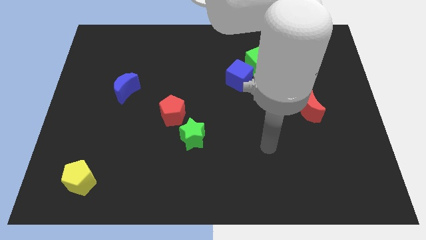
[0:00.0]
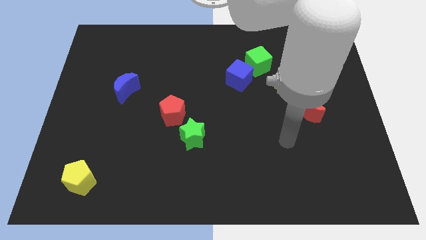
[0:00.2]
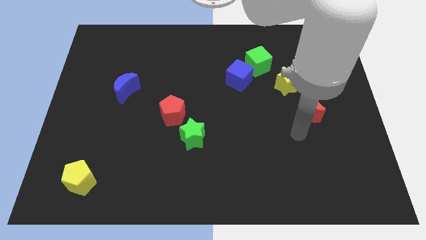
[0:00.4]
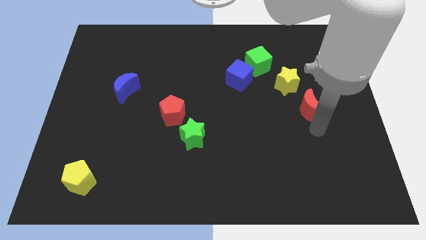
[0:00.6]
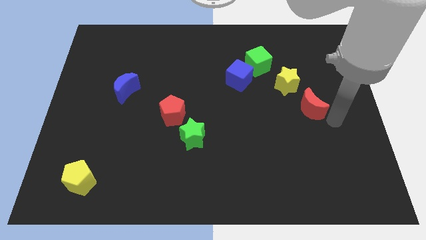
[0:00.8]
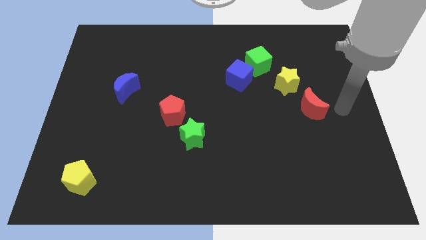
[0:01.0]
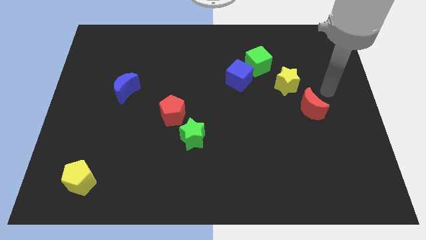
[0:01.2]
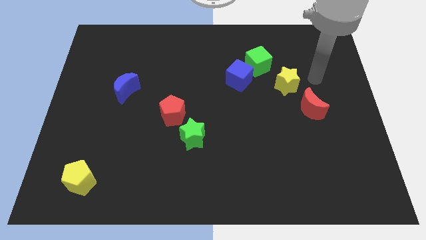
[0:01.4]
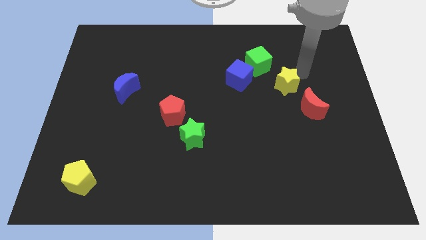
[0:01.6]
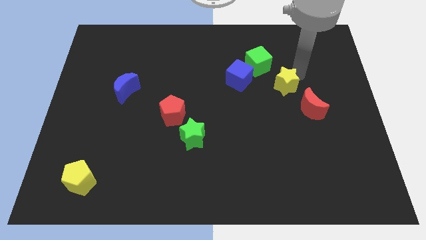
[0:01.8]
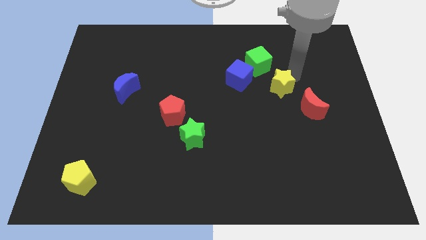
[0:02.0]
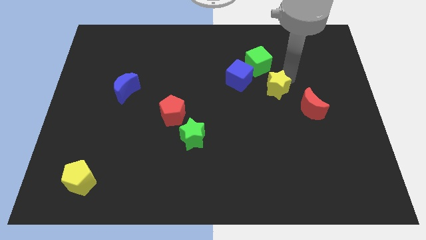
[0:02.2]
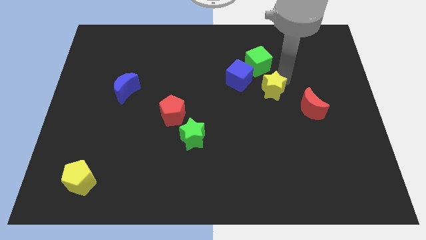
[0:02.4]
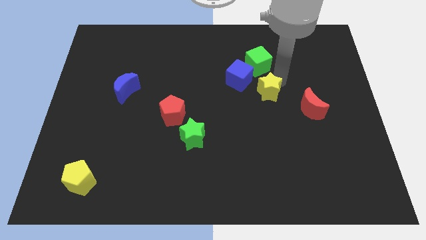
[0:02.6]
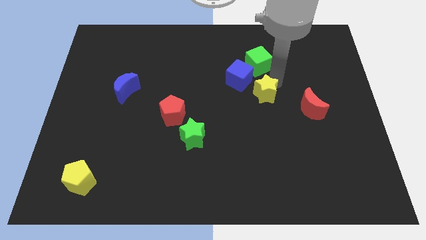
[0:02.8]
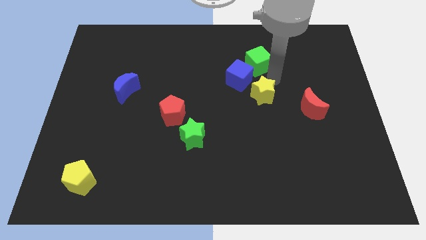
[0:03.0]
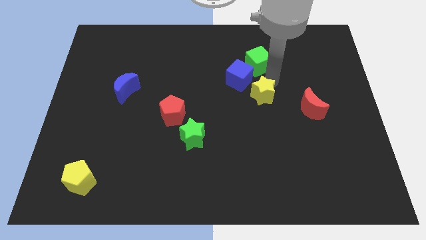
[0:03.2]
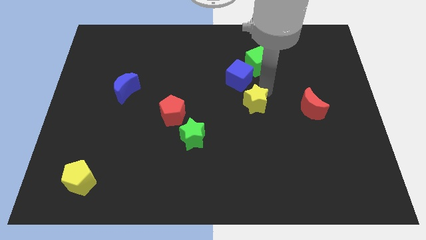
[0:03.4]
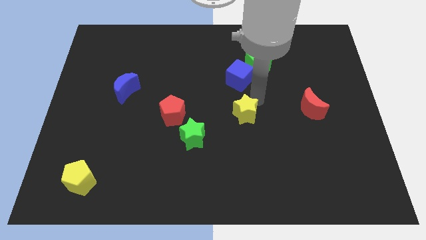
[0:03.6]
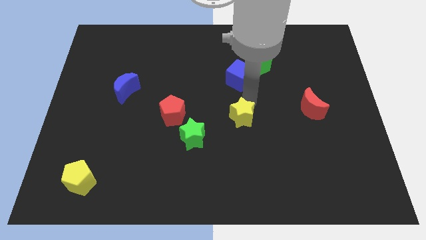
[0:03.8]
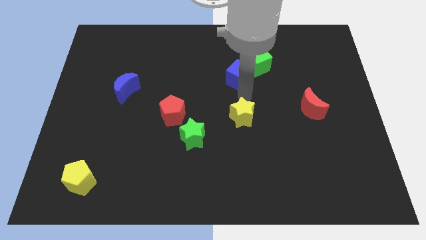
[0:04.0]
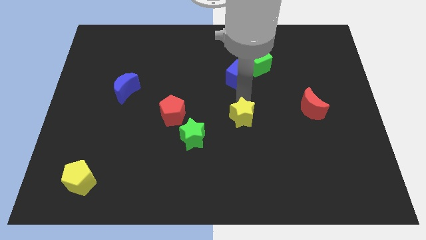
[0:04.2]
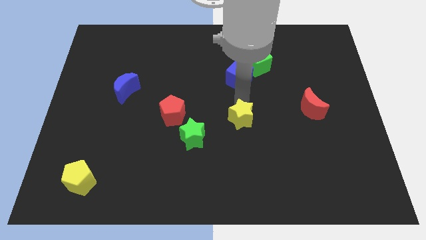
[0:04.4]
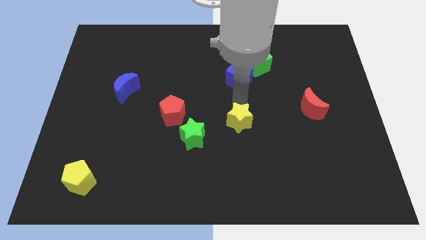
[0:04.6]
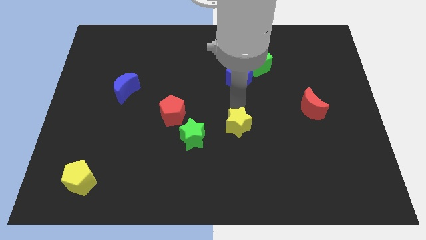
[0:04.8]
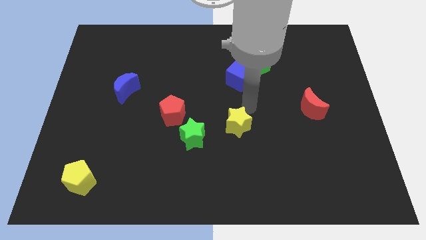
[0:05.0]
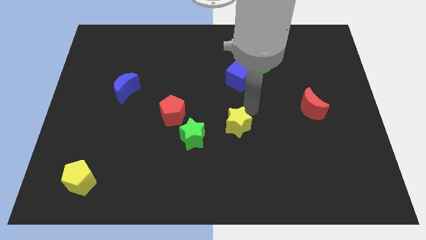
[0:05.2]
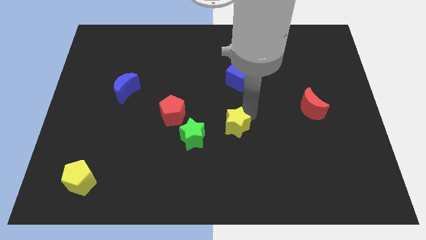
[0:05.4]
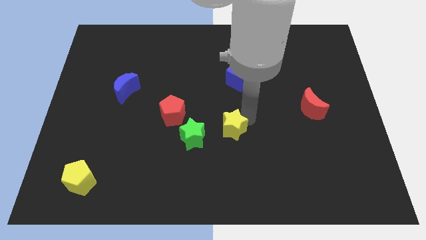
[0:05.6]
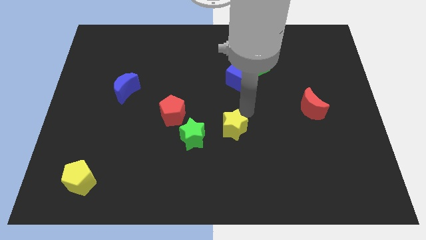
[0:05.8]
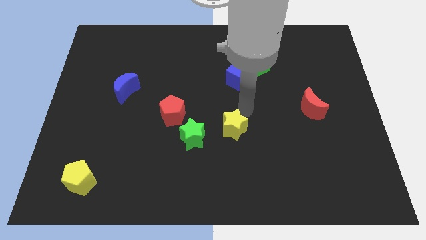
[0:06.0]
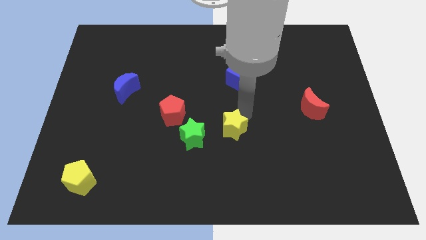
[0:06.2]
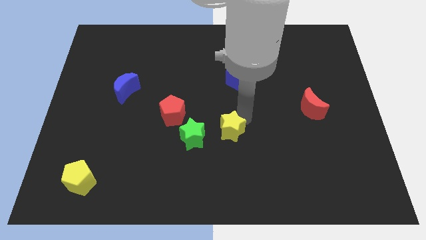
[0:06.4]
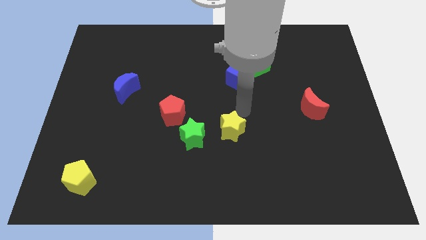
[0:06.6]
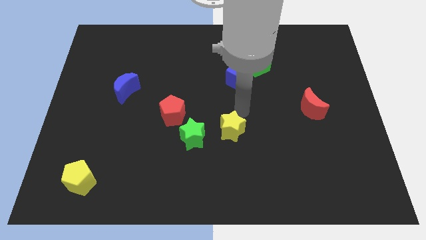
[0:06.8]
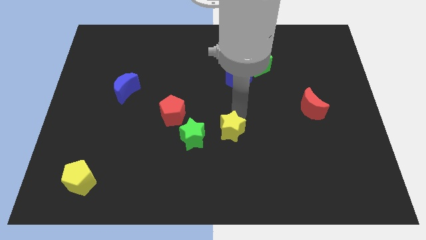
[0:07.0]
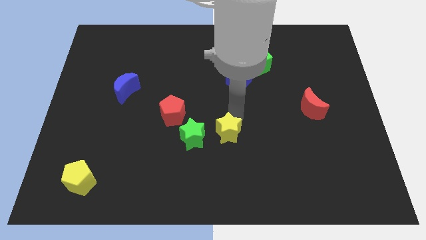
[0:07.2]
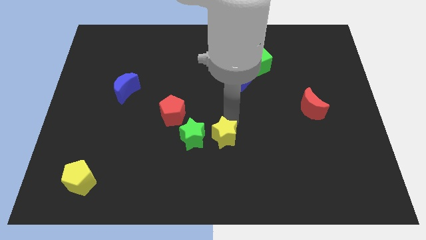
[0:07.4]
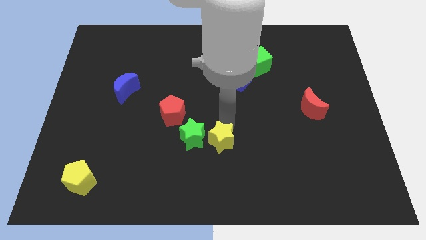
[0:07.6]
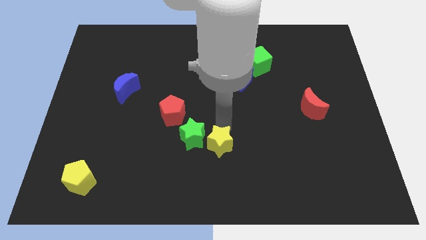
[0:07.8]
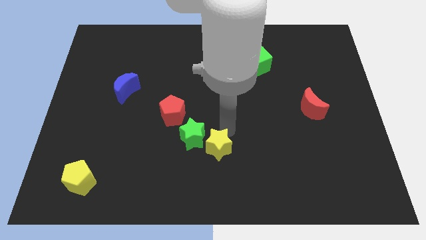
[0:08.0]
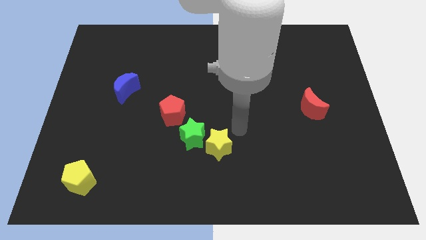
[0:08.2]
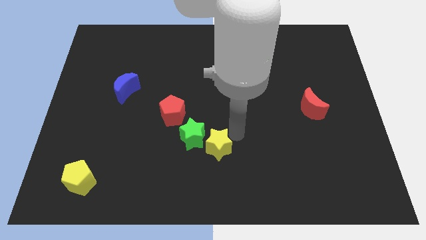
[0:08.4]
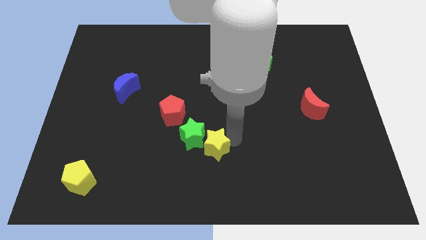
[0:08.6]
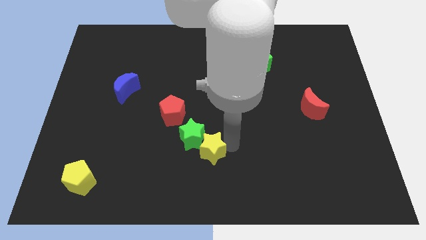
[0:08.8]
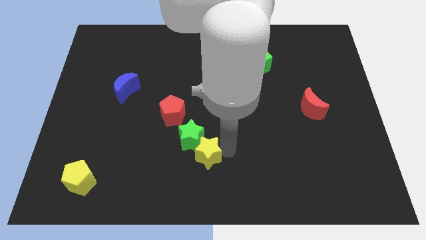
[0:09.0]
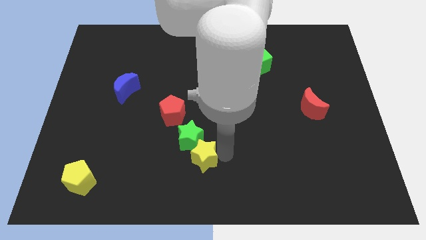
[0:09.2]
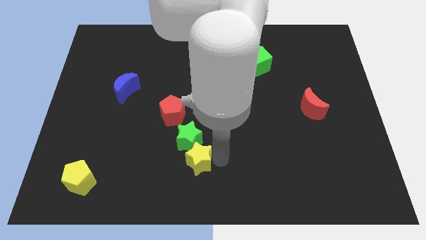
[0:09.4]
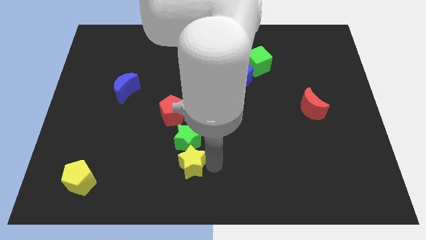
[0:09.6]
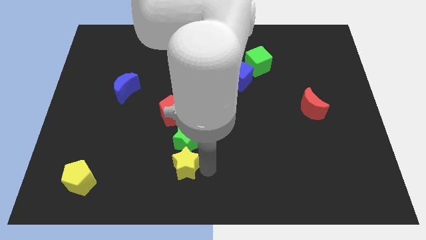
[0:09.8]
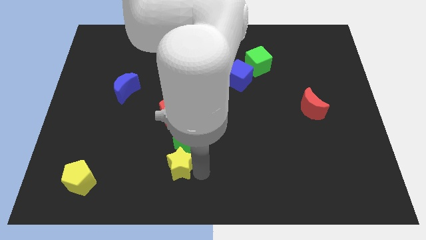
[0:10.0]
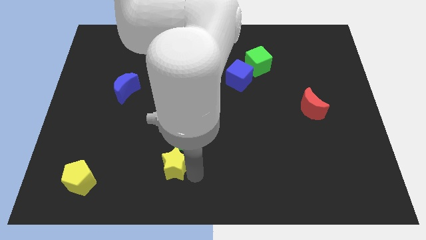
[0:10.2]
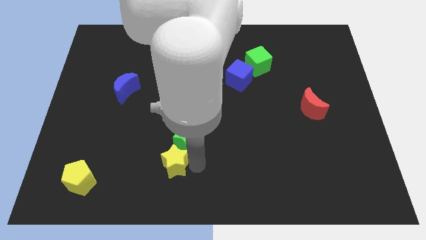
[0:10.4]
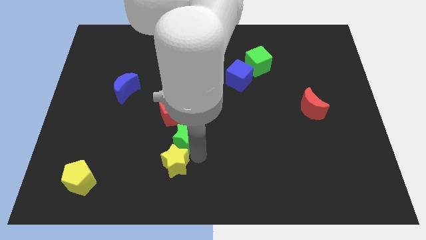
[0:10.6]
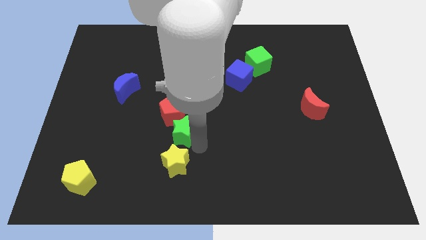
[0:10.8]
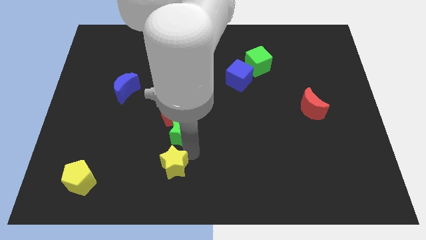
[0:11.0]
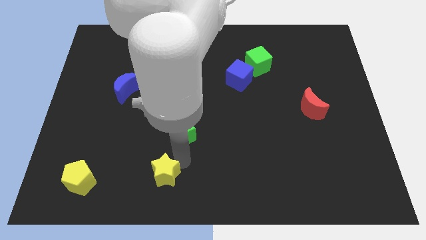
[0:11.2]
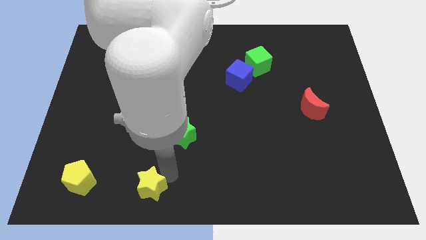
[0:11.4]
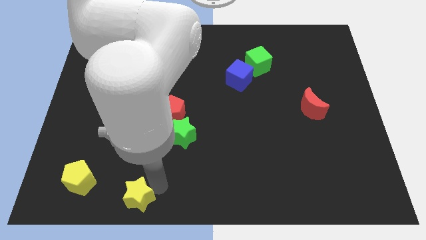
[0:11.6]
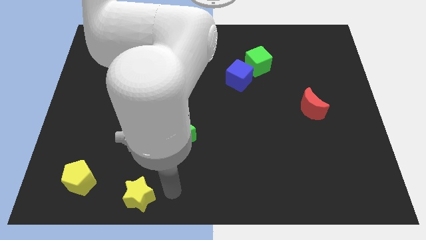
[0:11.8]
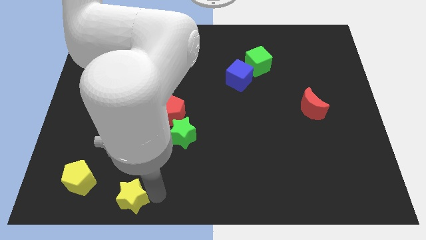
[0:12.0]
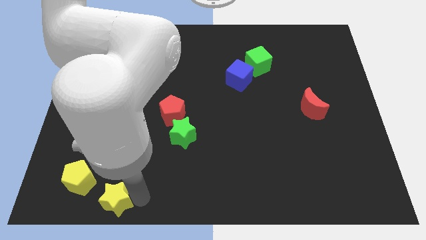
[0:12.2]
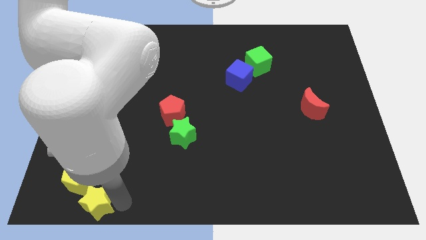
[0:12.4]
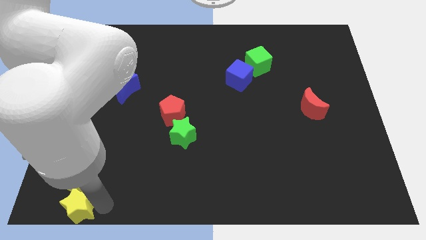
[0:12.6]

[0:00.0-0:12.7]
push the yellow star to the bottom left of the board

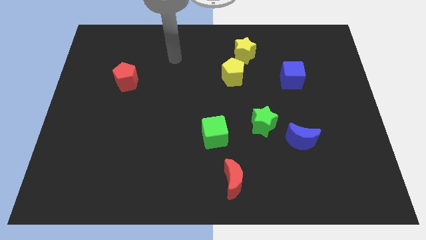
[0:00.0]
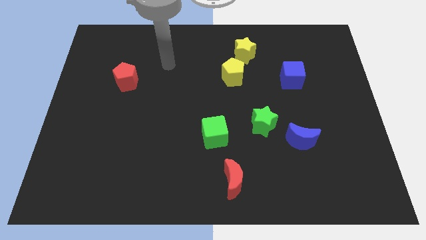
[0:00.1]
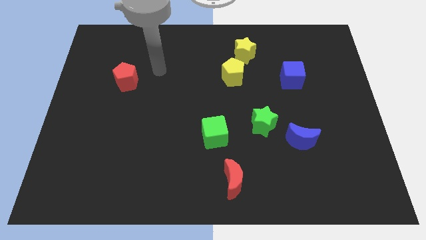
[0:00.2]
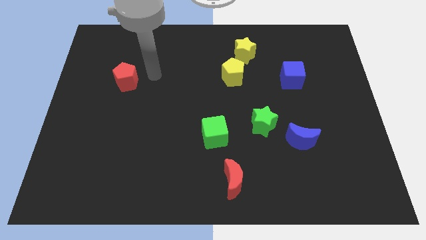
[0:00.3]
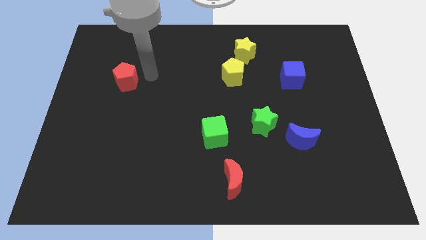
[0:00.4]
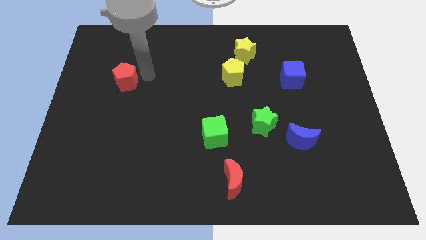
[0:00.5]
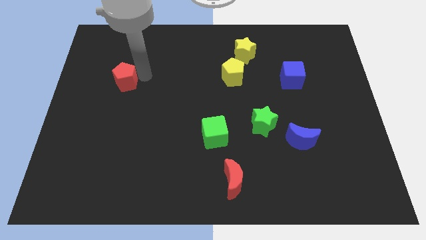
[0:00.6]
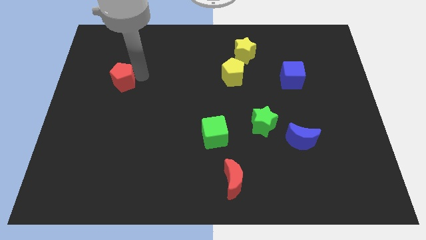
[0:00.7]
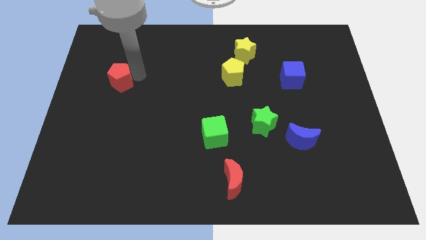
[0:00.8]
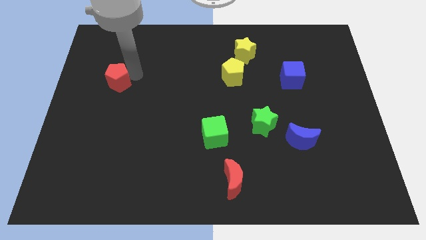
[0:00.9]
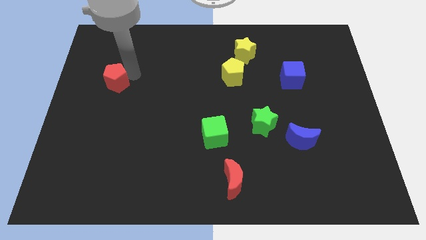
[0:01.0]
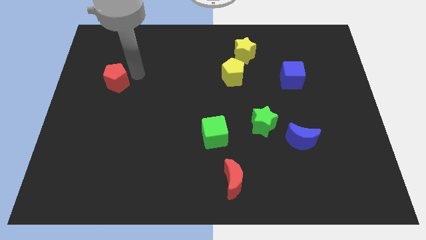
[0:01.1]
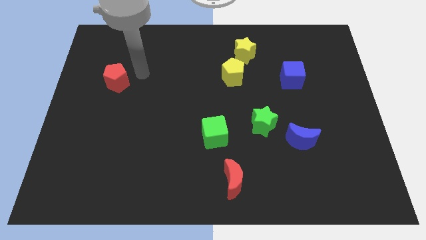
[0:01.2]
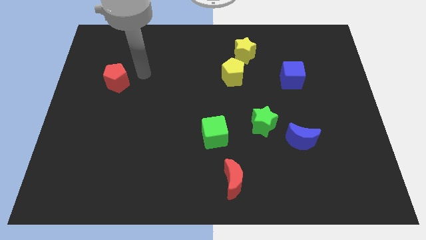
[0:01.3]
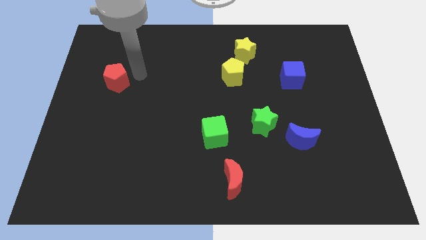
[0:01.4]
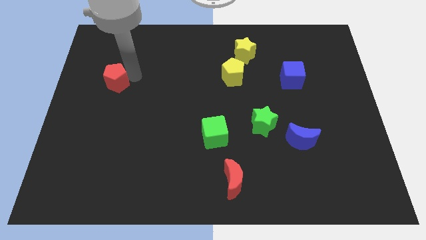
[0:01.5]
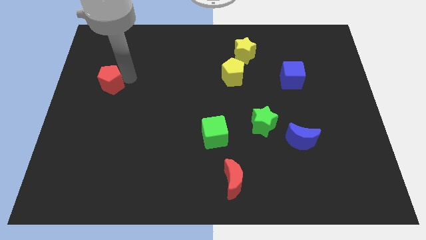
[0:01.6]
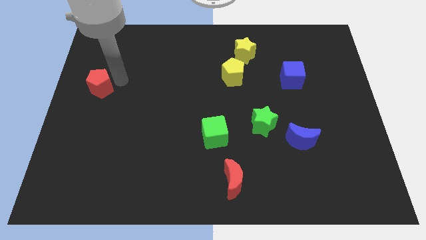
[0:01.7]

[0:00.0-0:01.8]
put the red pentagon to the left side
